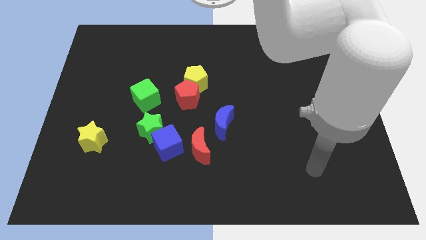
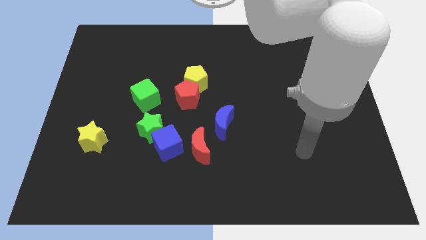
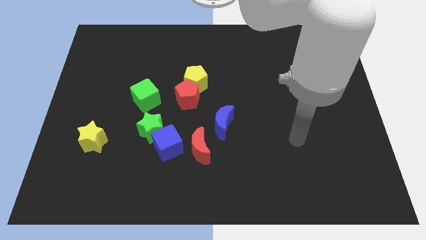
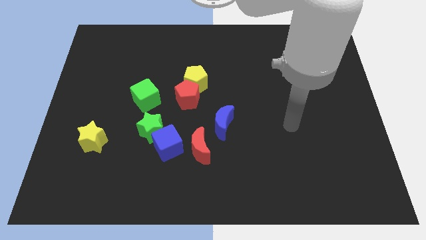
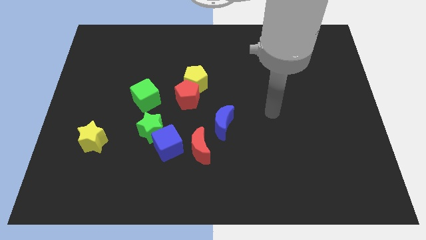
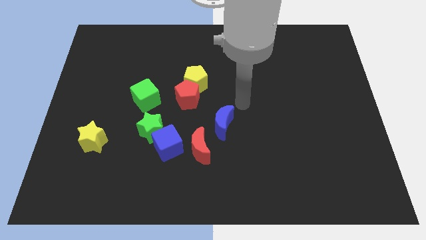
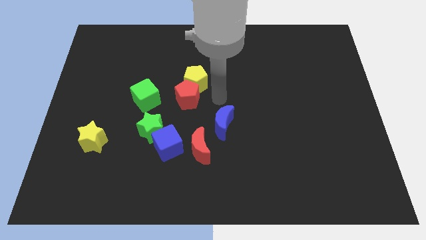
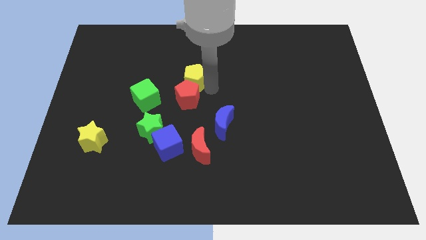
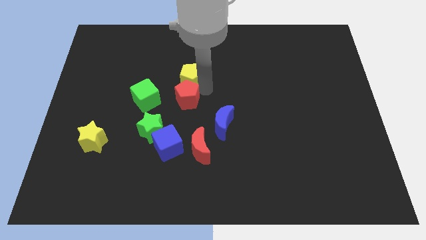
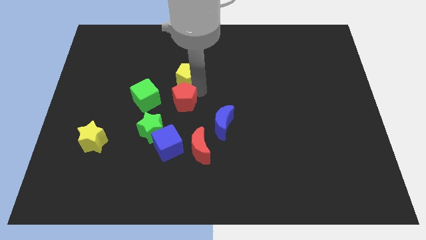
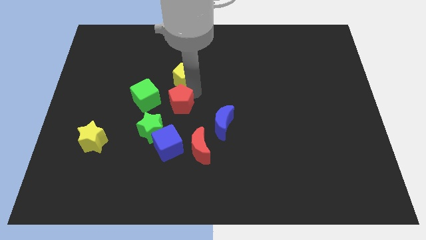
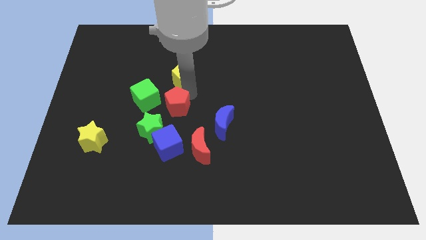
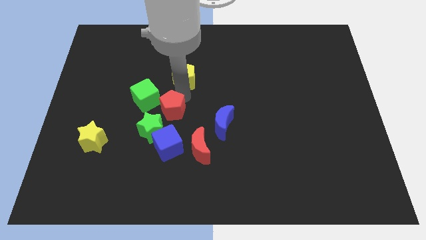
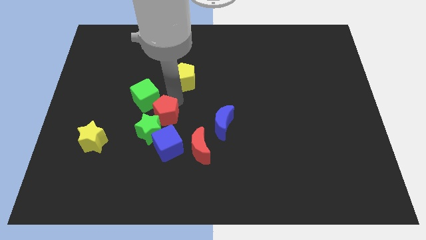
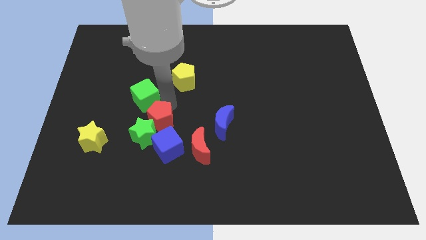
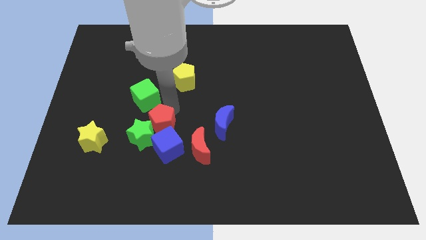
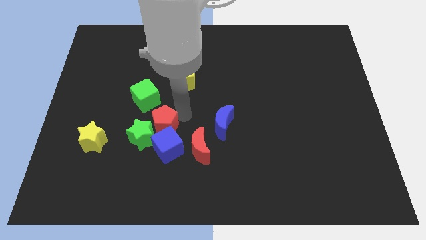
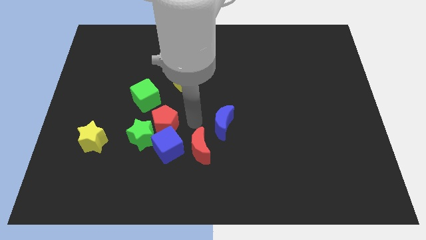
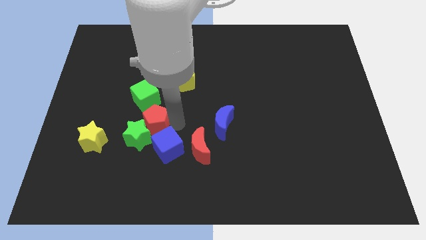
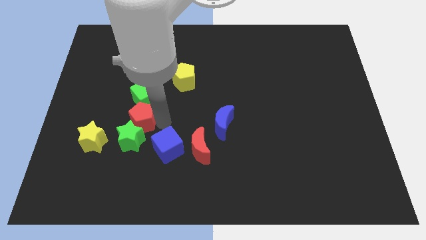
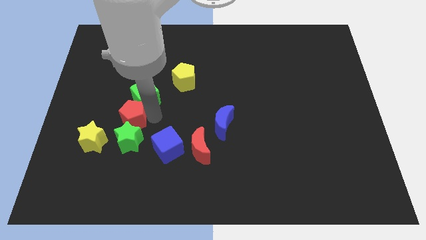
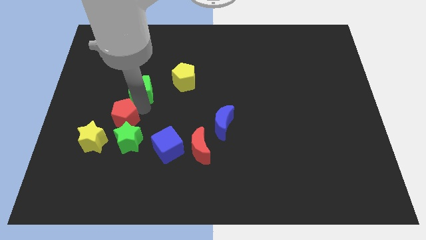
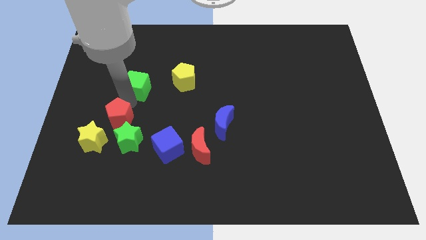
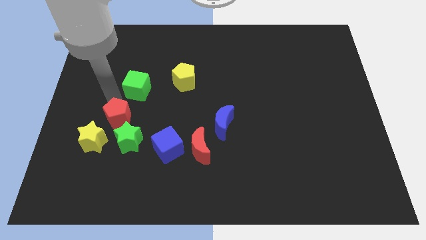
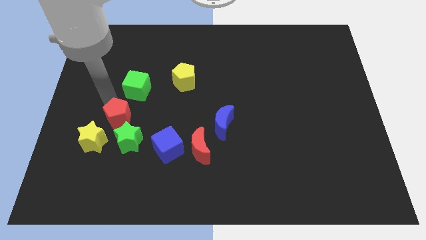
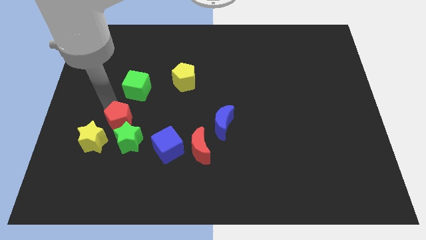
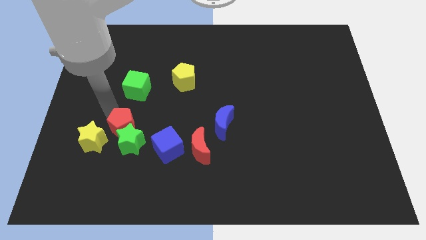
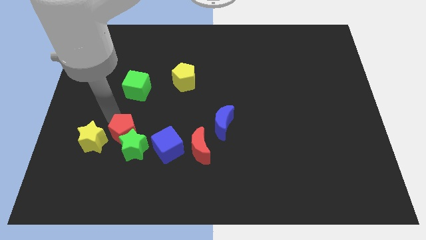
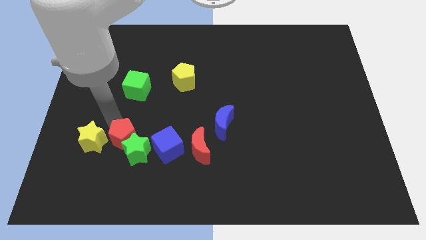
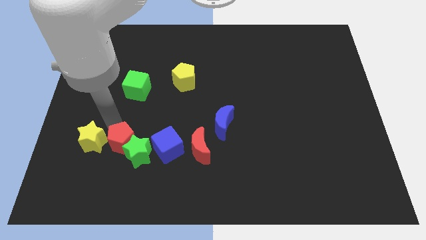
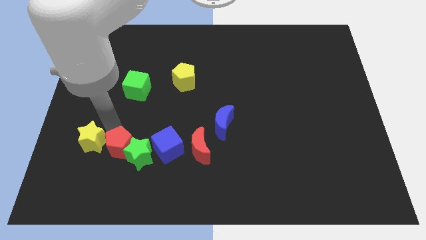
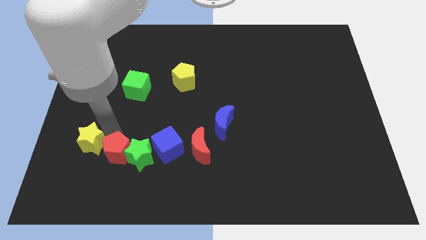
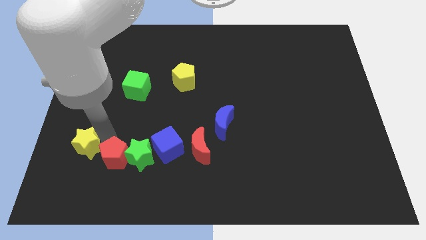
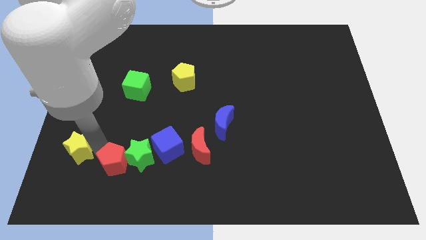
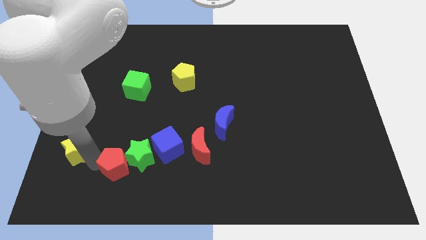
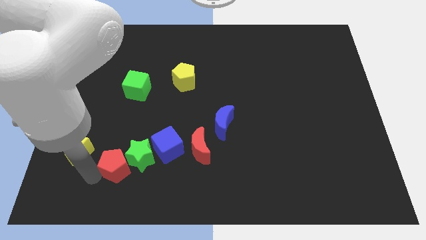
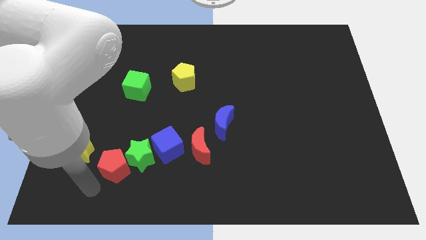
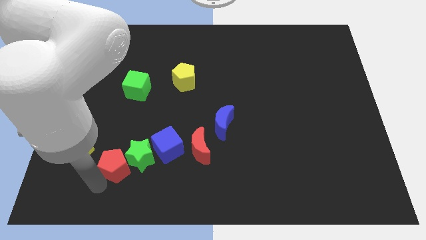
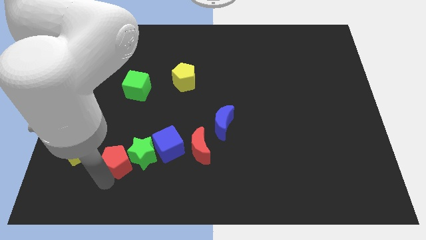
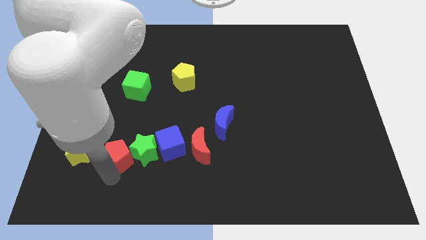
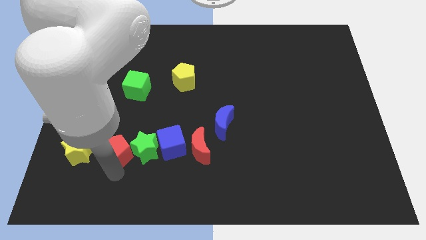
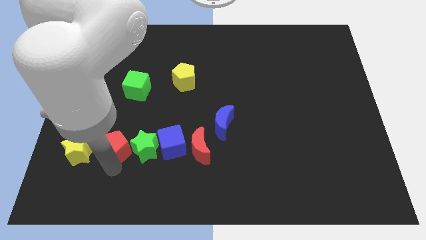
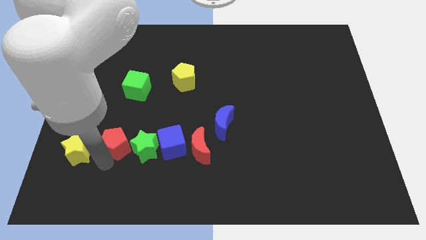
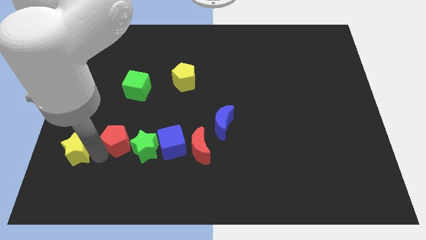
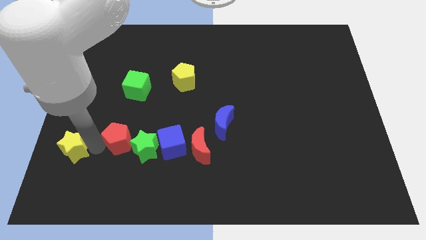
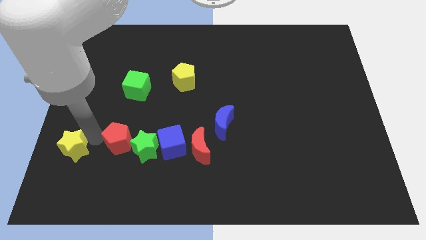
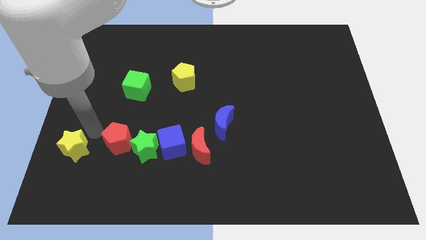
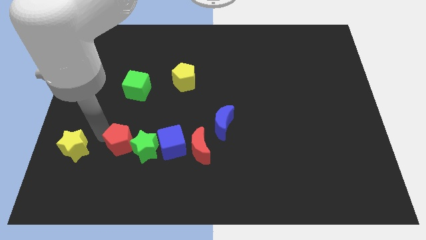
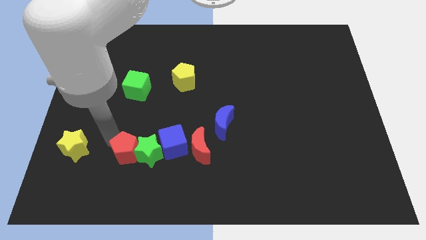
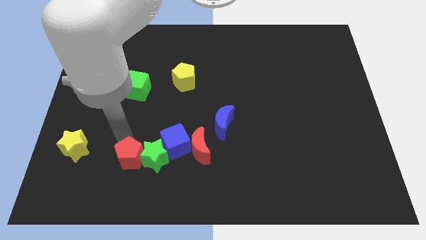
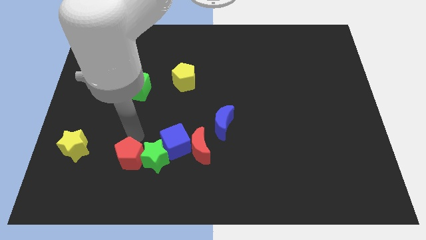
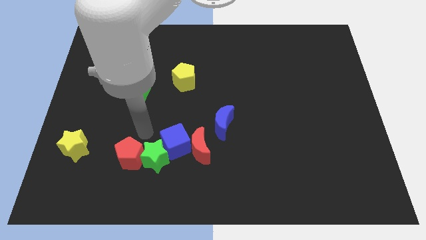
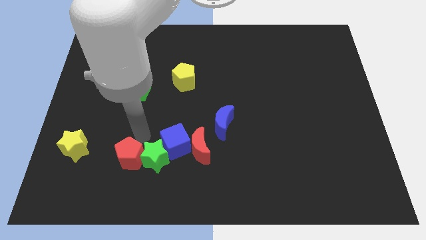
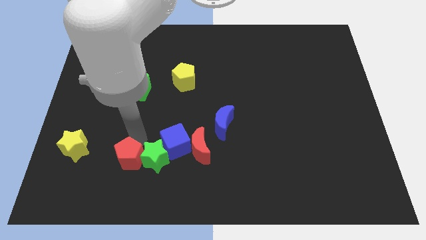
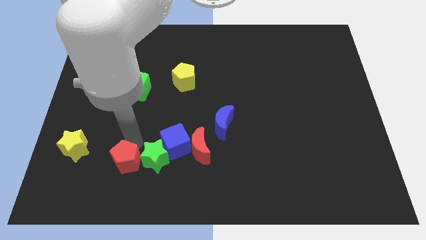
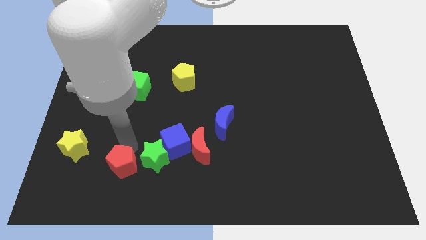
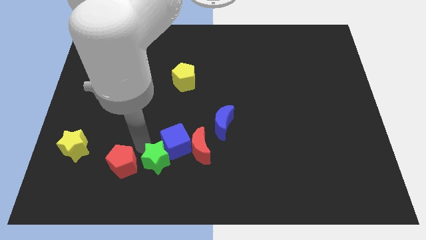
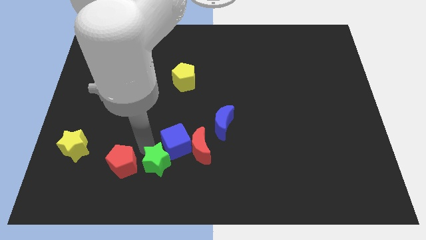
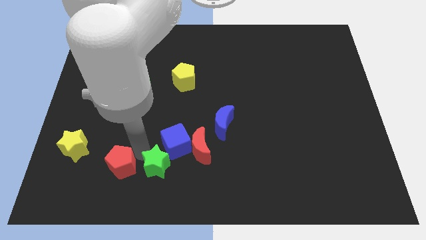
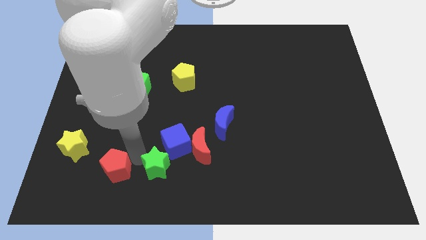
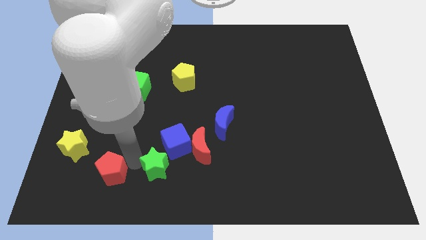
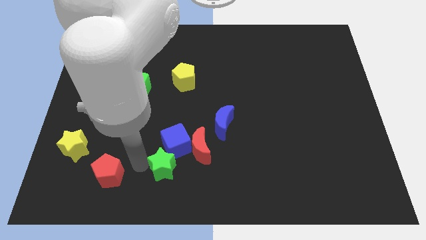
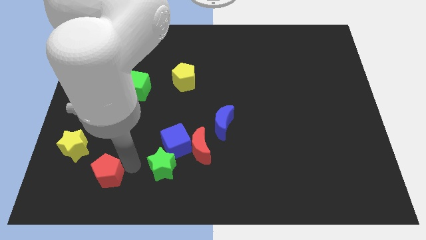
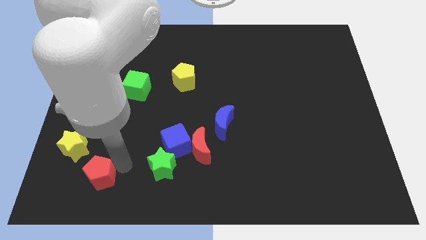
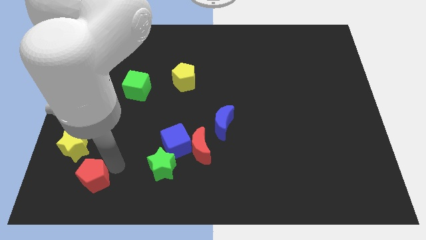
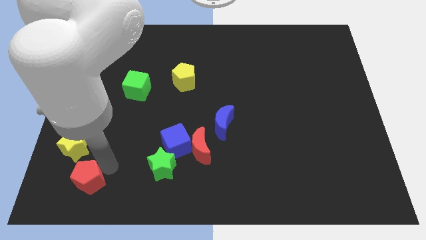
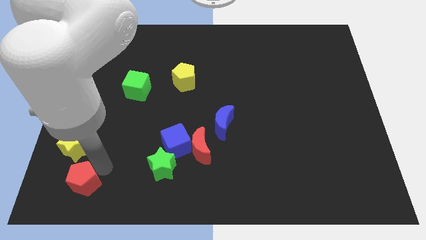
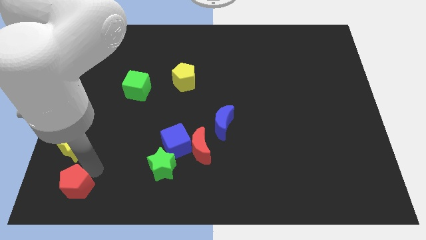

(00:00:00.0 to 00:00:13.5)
put the red pentagon to the bottom left of the board

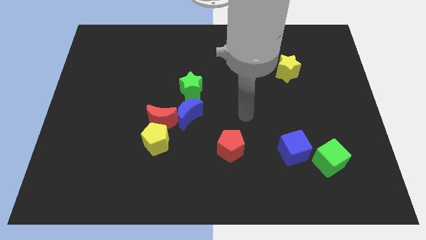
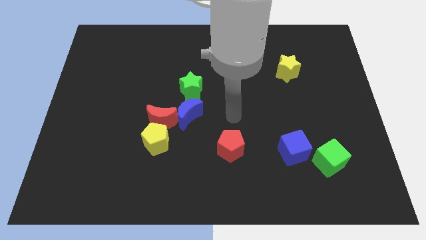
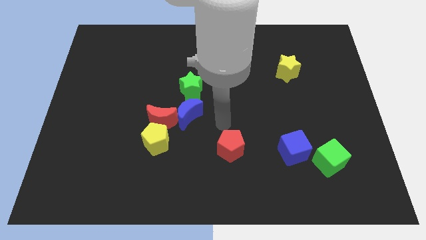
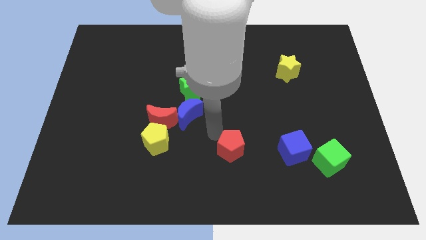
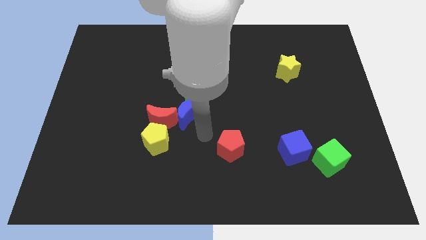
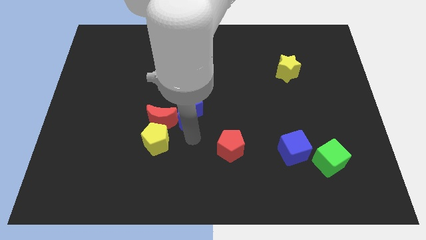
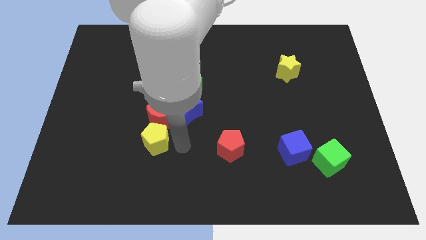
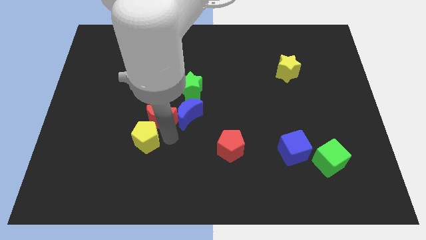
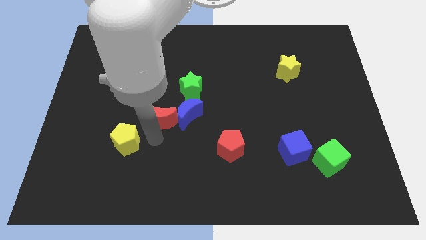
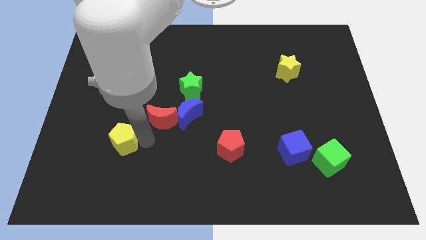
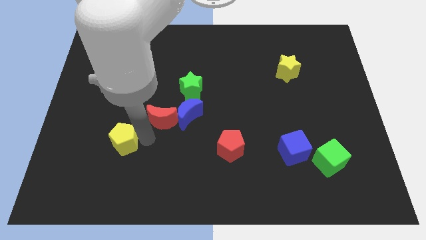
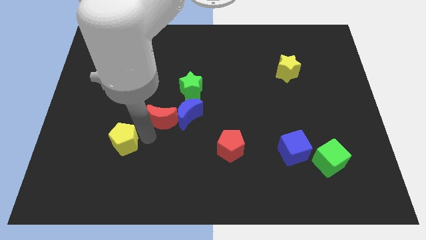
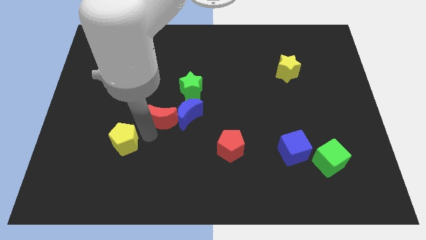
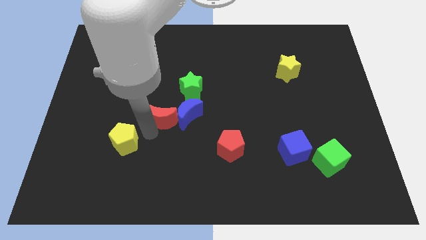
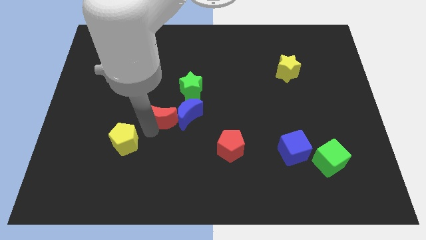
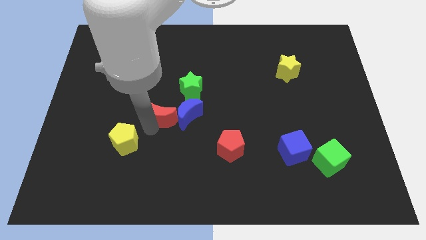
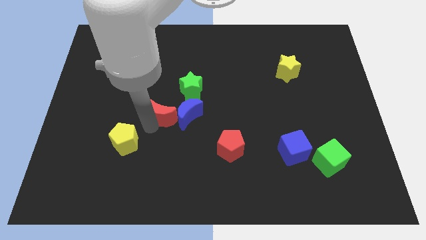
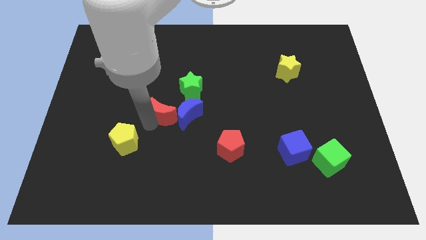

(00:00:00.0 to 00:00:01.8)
push the red moon to the center
